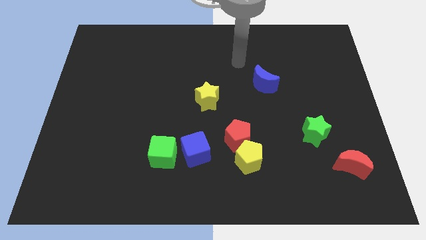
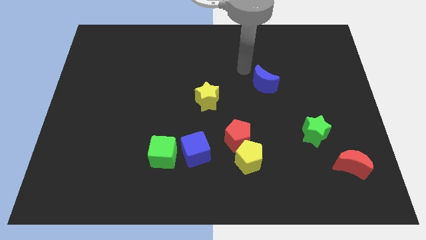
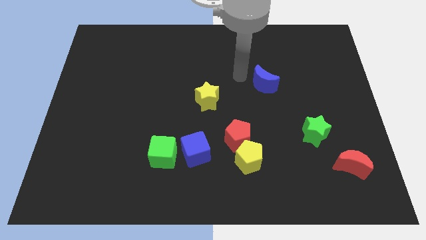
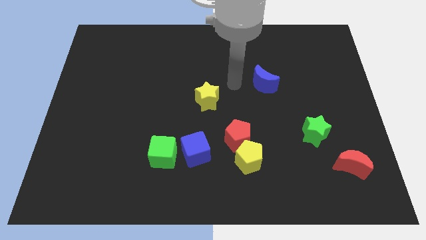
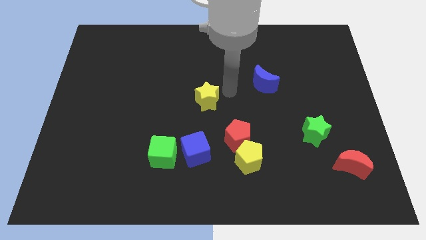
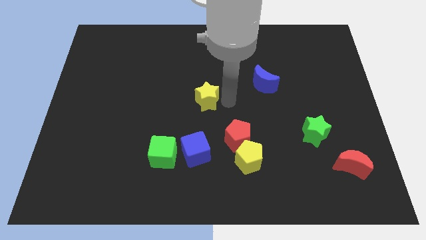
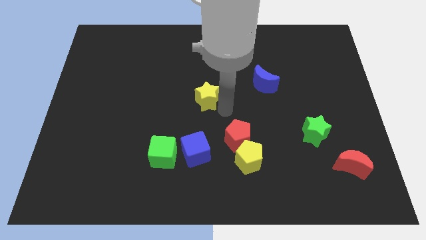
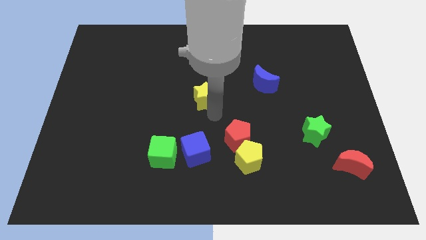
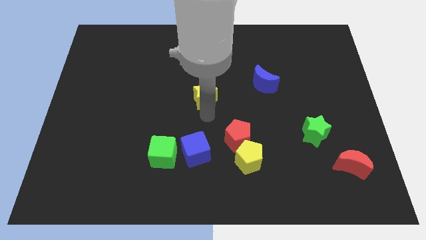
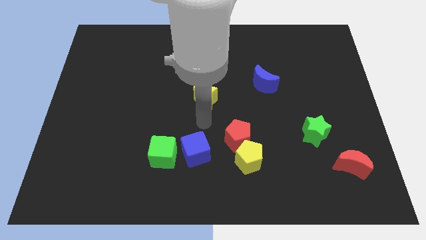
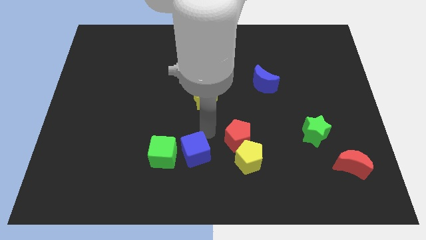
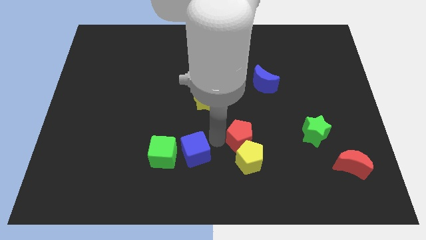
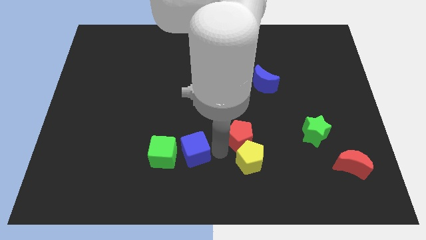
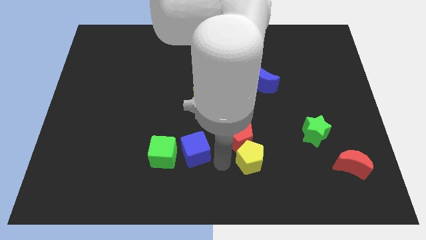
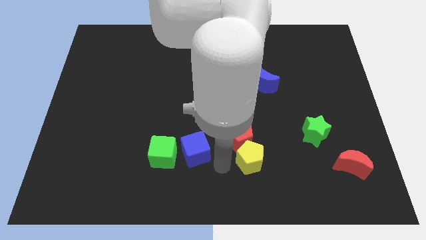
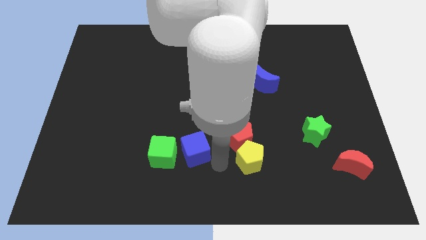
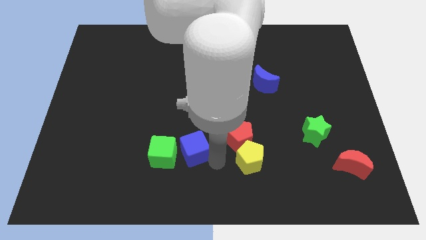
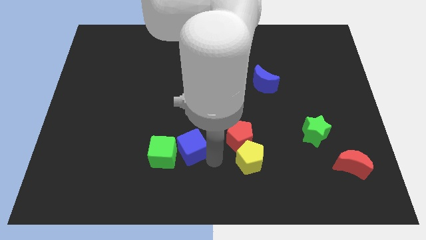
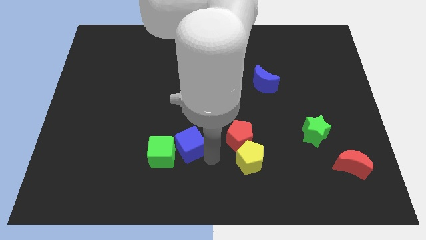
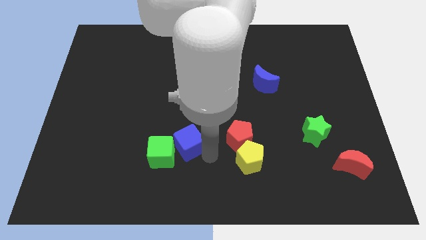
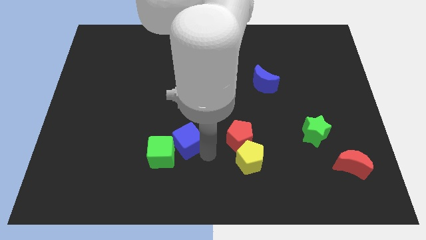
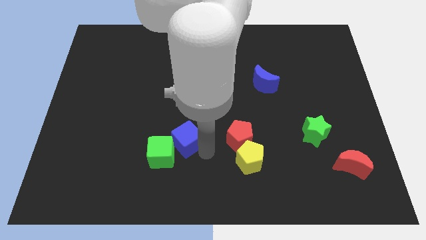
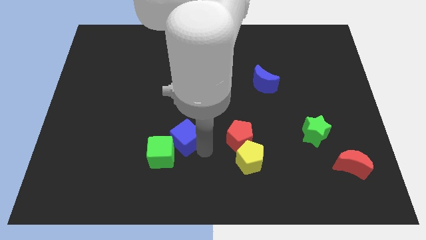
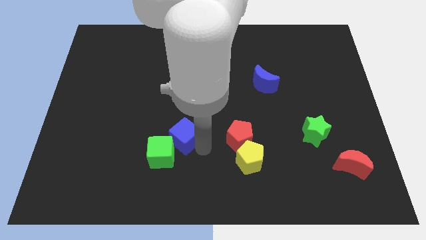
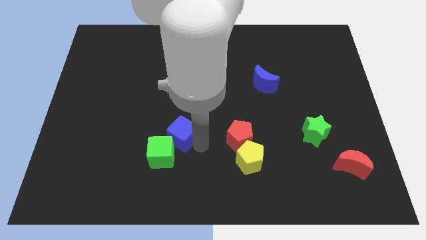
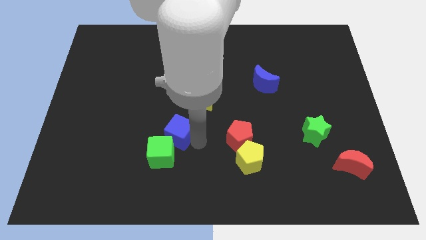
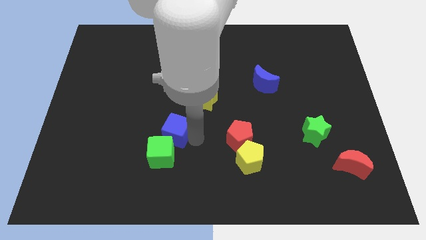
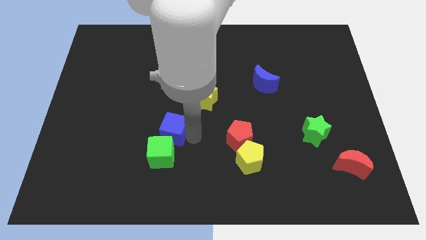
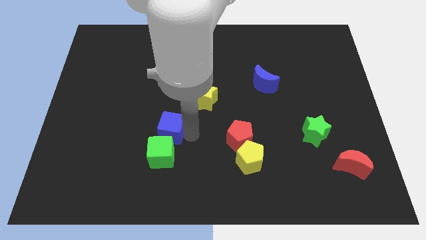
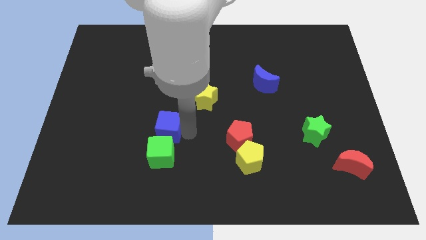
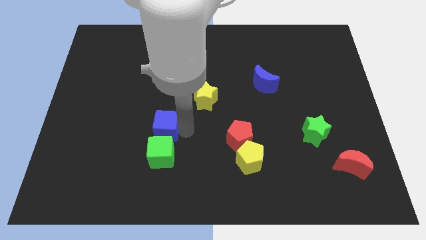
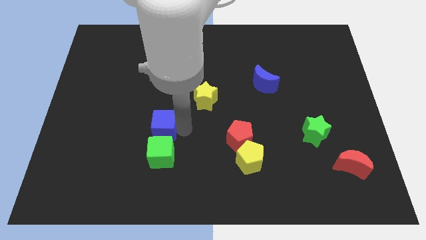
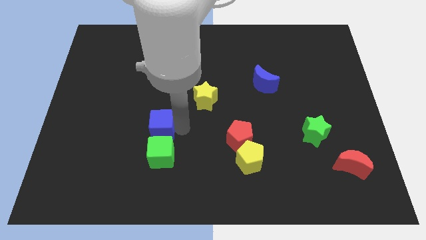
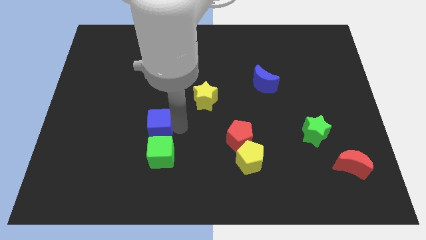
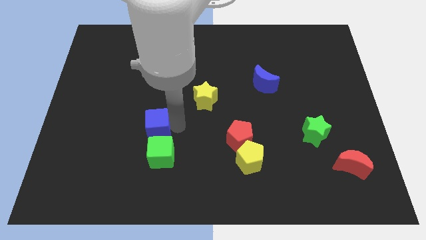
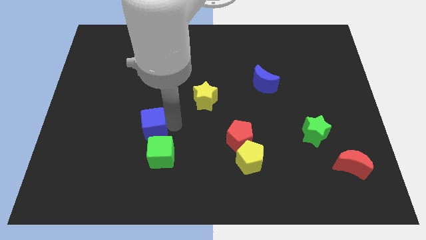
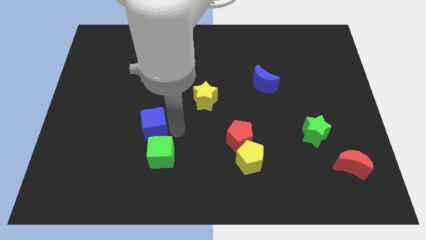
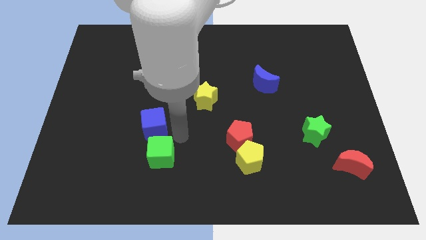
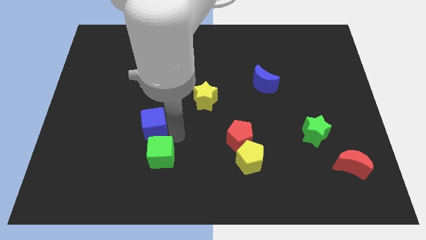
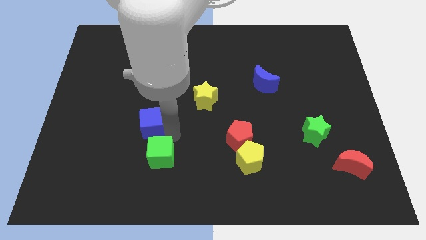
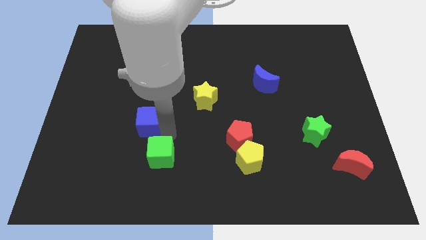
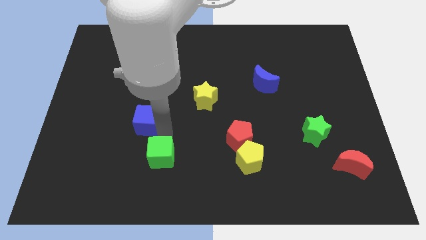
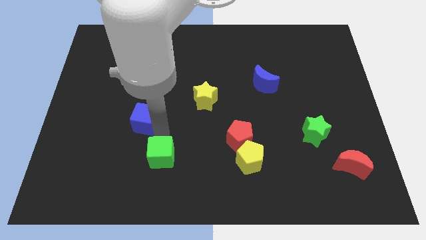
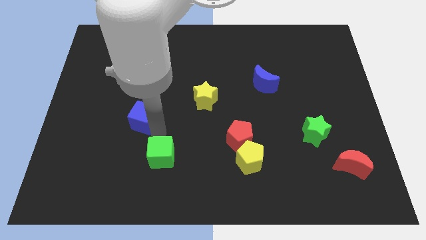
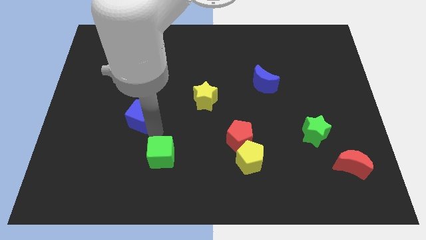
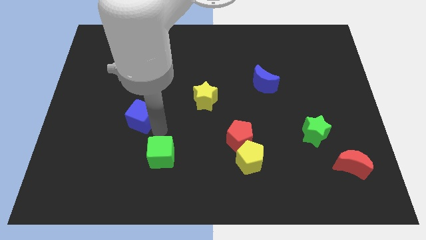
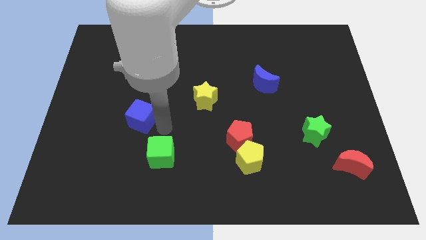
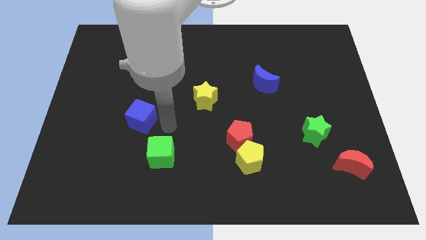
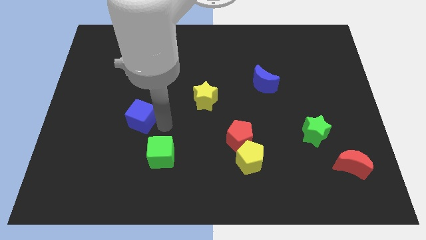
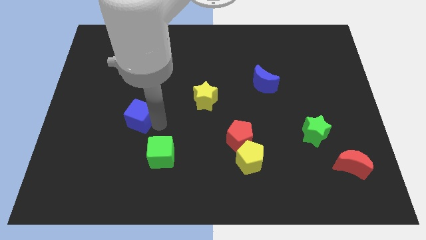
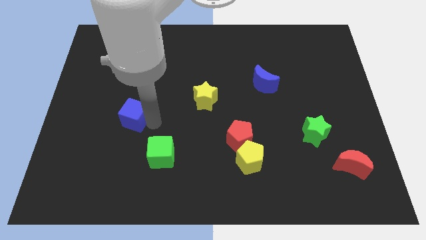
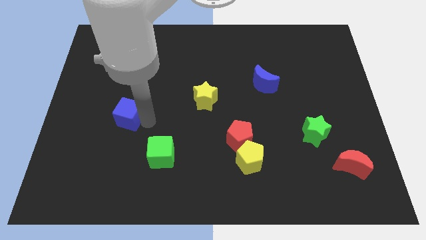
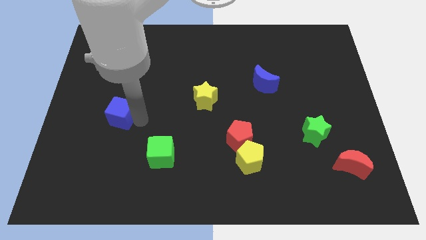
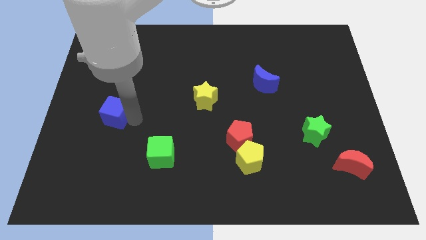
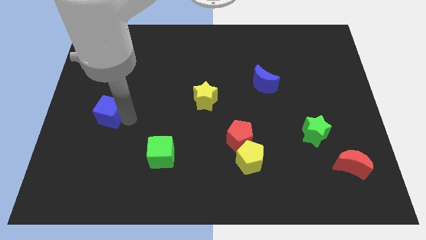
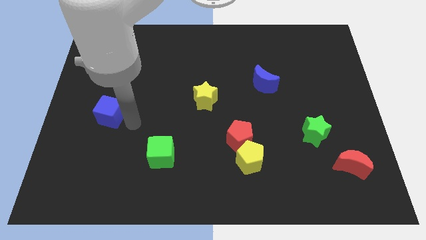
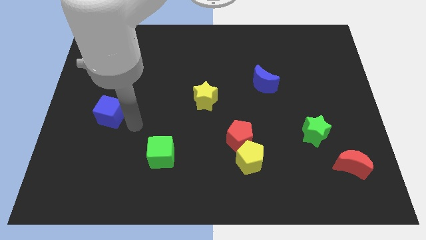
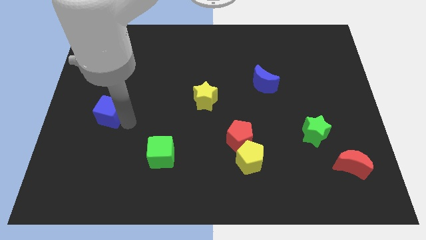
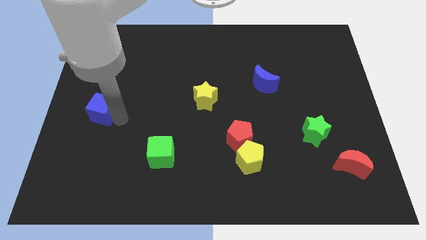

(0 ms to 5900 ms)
put the blue cube to the center left

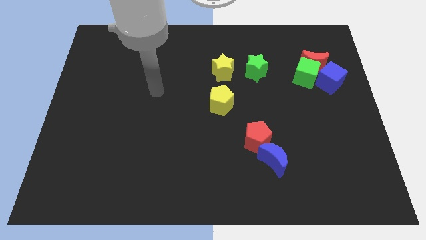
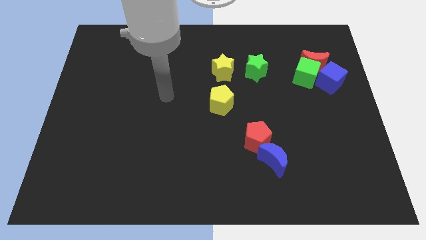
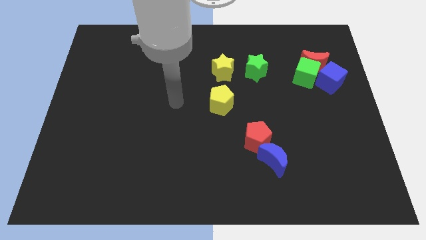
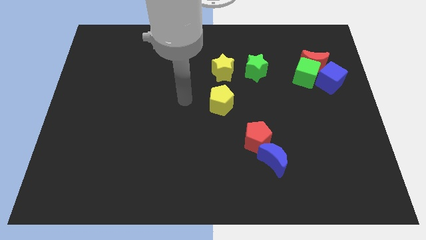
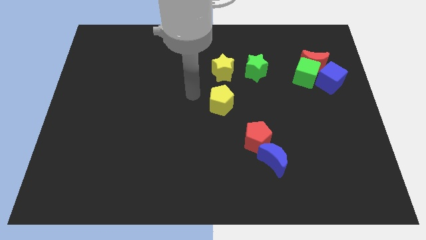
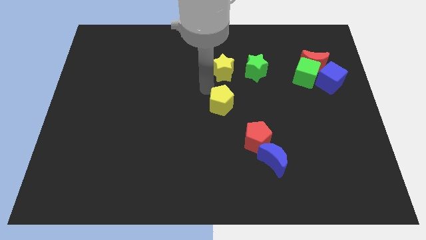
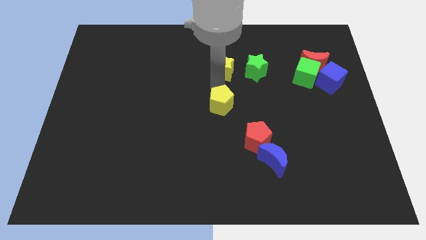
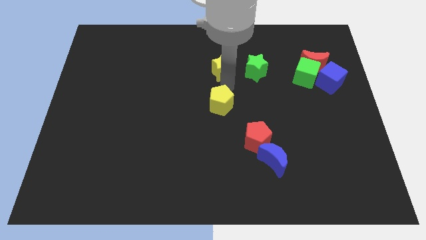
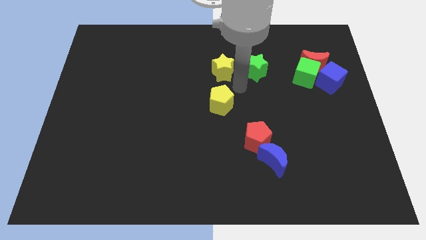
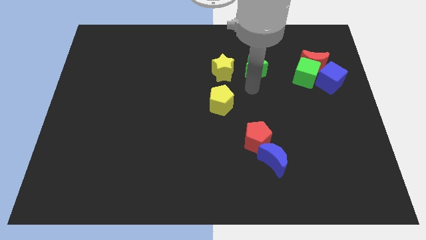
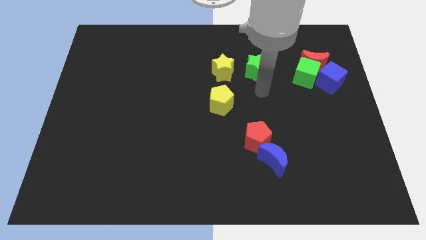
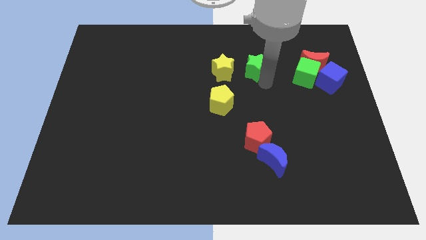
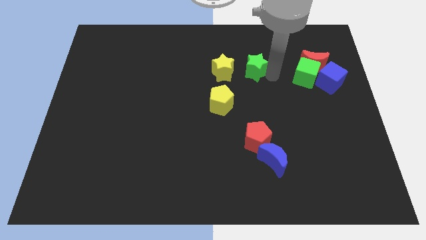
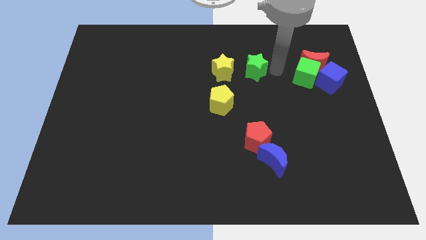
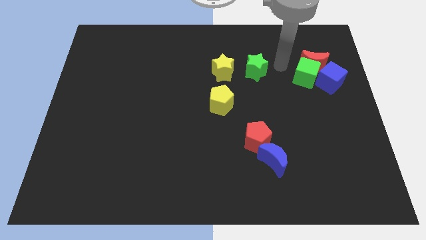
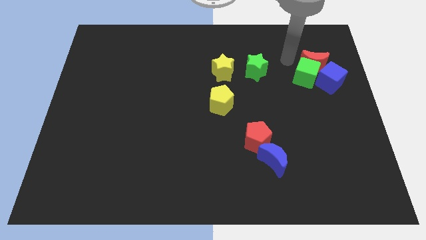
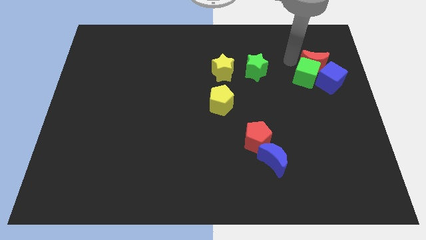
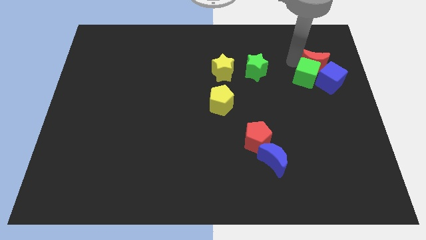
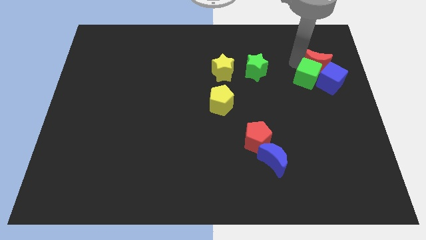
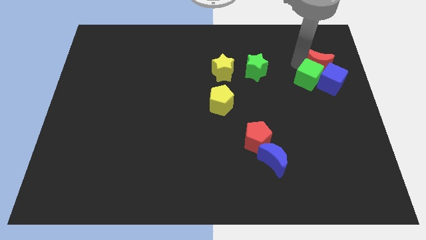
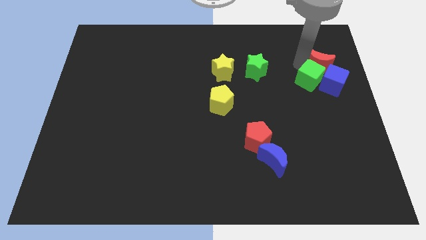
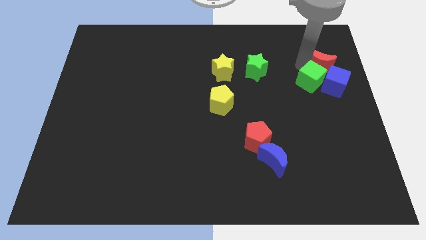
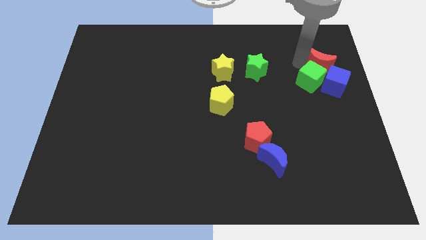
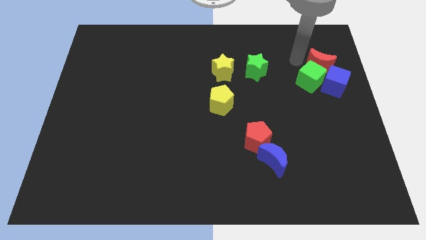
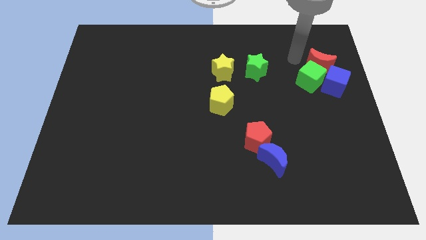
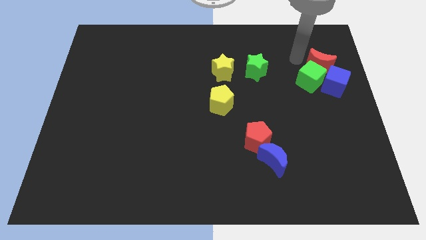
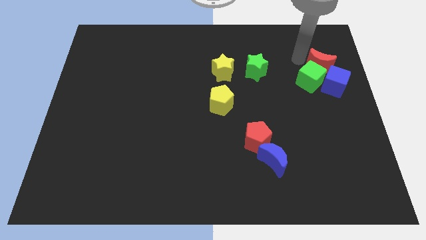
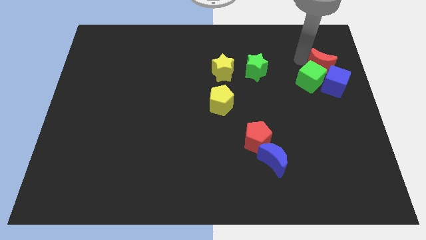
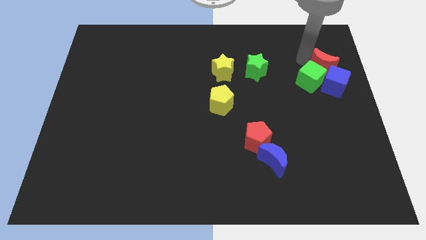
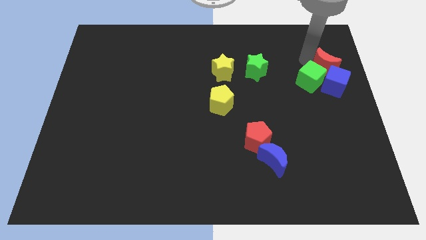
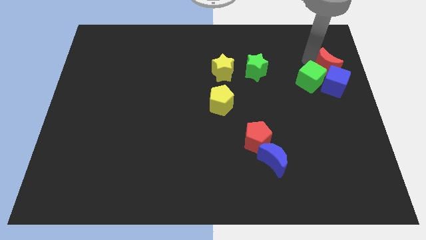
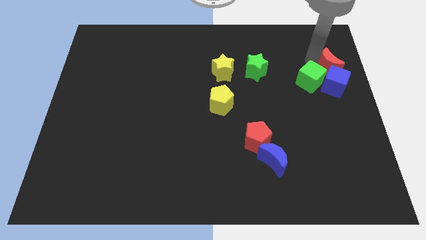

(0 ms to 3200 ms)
push the red moon to the center right
